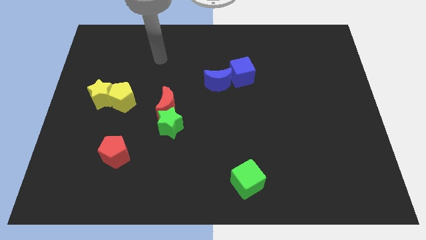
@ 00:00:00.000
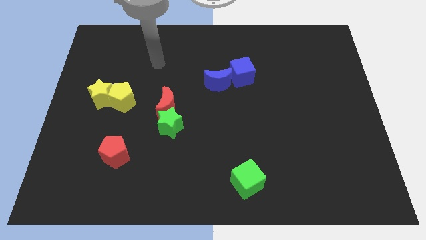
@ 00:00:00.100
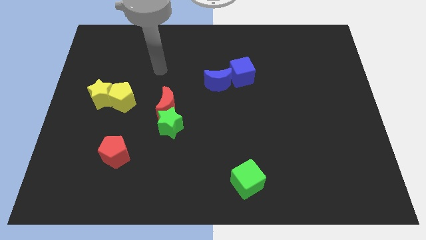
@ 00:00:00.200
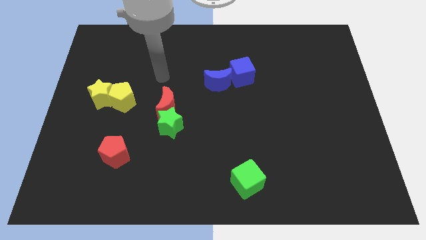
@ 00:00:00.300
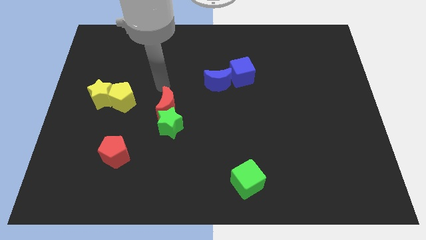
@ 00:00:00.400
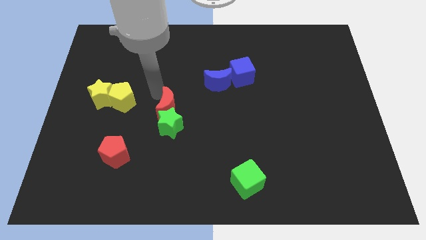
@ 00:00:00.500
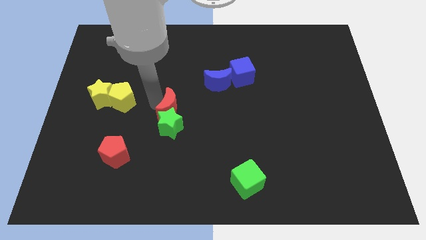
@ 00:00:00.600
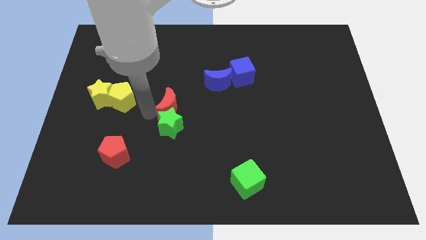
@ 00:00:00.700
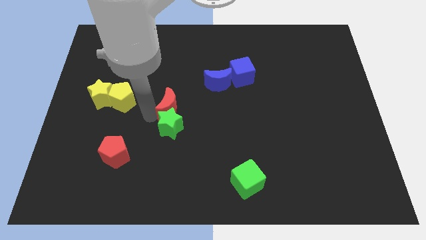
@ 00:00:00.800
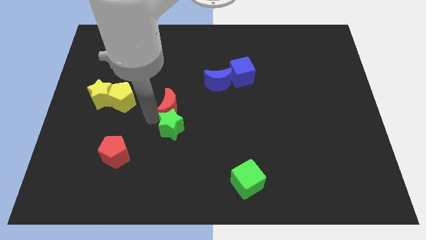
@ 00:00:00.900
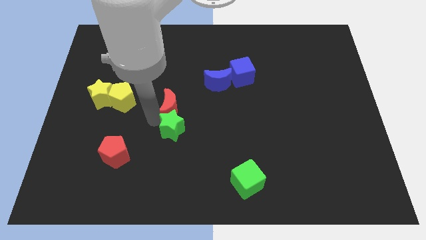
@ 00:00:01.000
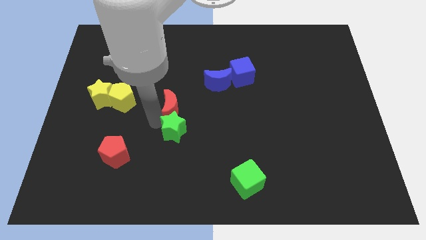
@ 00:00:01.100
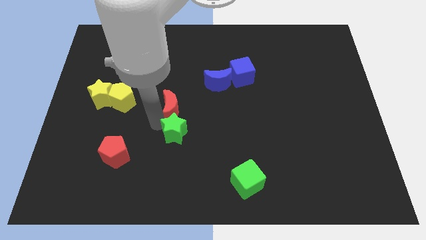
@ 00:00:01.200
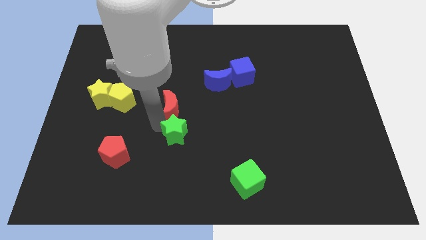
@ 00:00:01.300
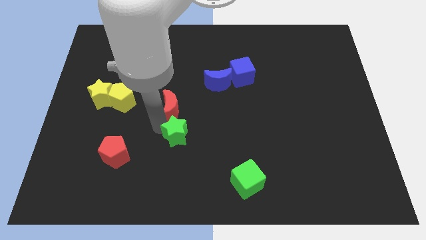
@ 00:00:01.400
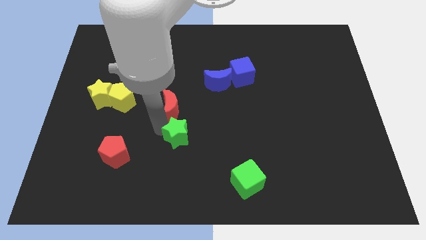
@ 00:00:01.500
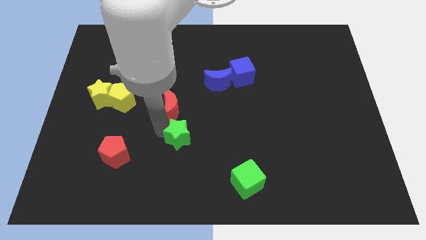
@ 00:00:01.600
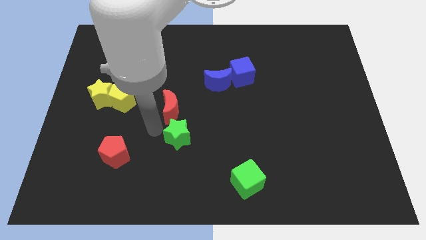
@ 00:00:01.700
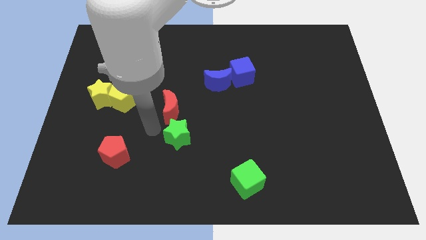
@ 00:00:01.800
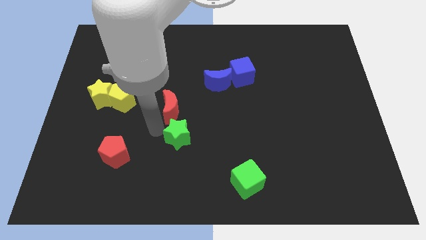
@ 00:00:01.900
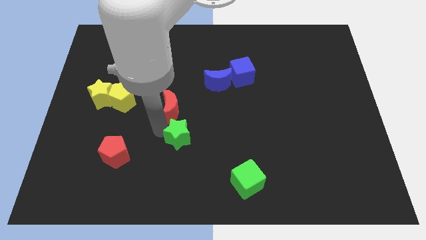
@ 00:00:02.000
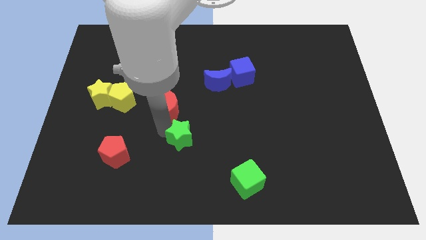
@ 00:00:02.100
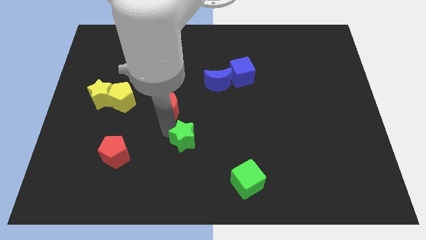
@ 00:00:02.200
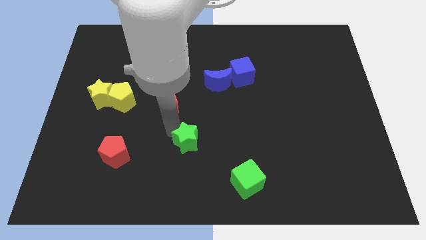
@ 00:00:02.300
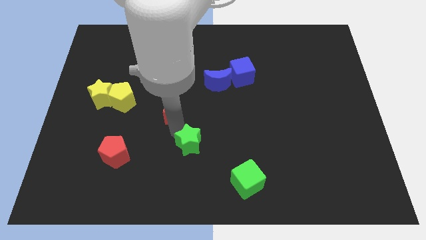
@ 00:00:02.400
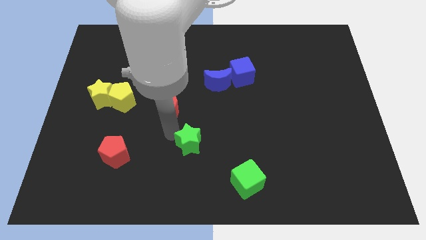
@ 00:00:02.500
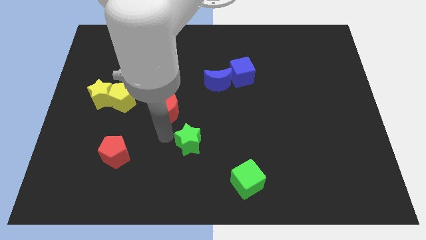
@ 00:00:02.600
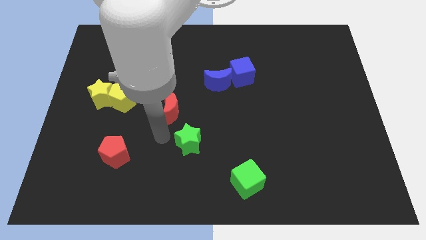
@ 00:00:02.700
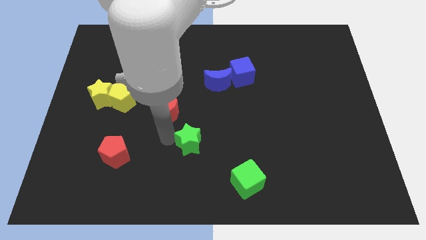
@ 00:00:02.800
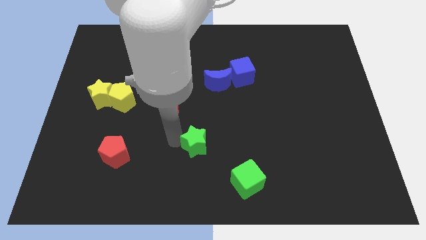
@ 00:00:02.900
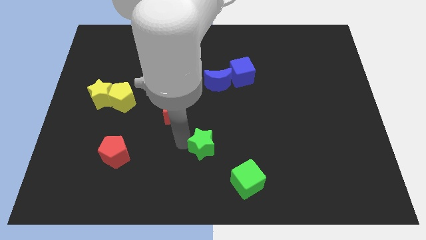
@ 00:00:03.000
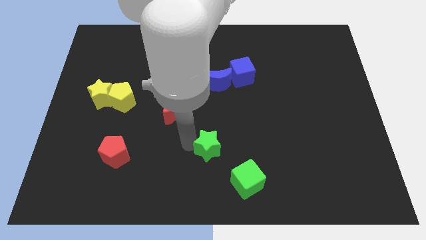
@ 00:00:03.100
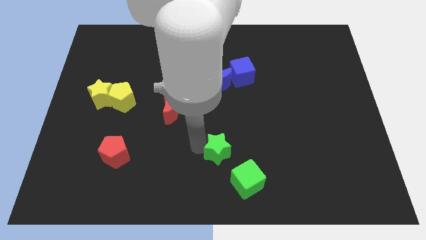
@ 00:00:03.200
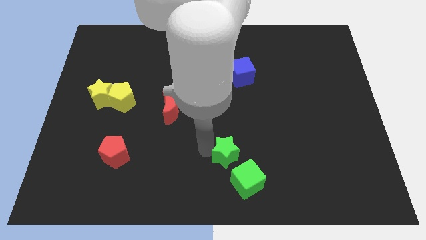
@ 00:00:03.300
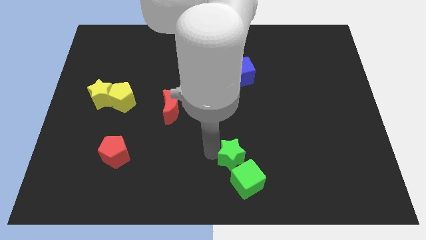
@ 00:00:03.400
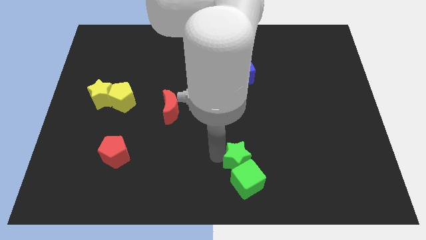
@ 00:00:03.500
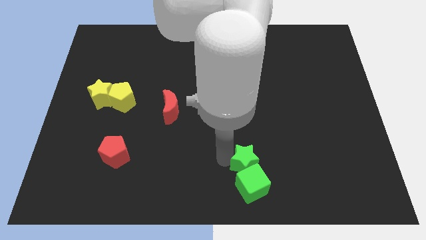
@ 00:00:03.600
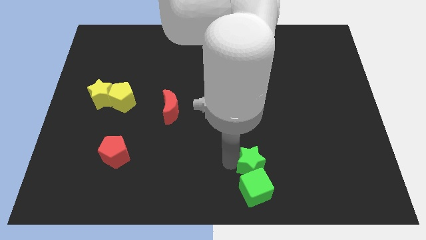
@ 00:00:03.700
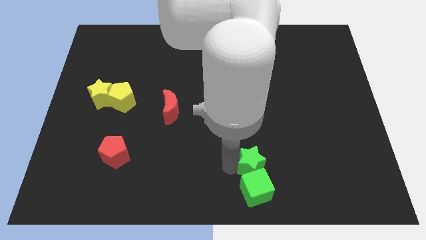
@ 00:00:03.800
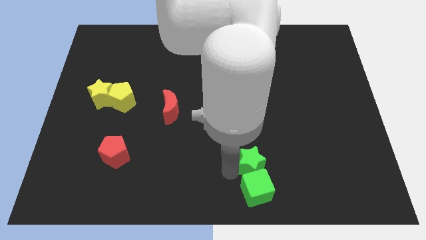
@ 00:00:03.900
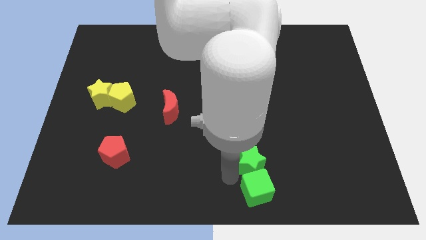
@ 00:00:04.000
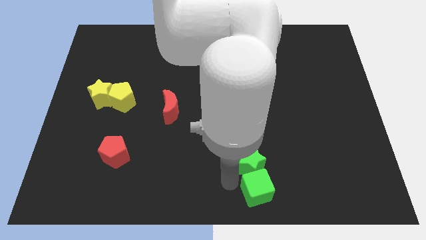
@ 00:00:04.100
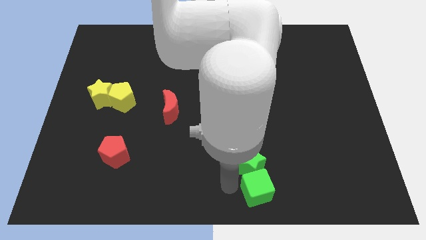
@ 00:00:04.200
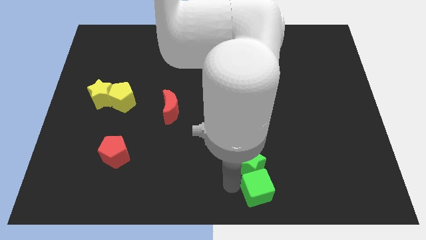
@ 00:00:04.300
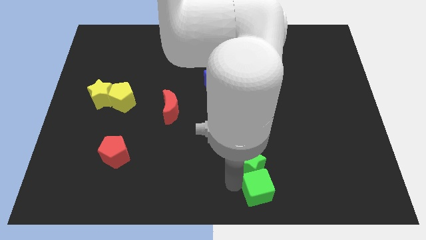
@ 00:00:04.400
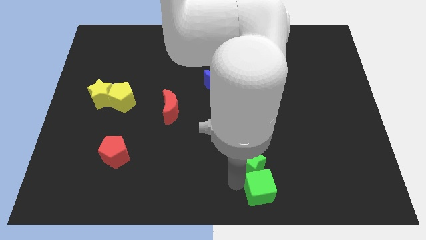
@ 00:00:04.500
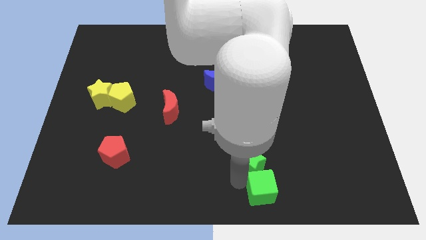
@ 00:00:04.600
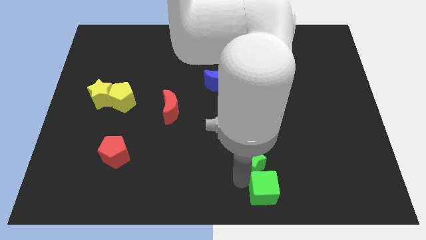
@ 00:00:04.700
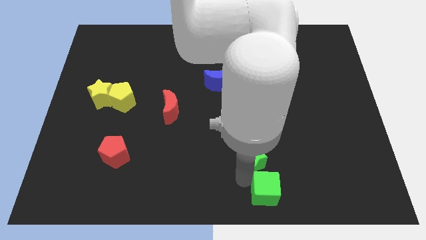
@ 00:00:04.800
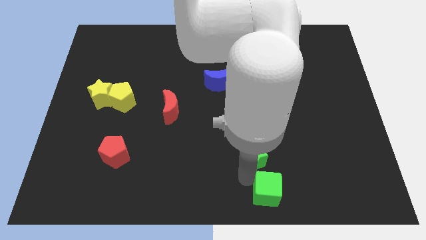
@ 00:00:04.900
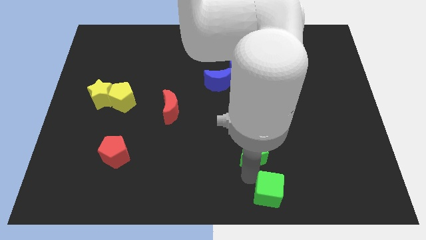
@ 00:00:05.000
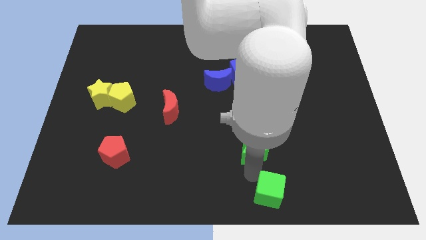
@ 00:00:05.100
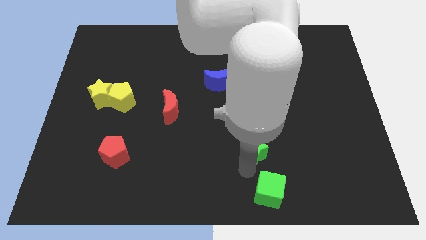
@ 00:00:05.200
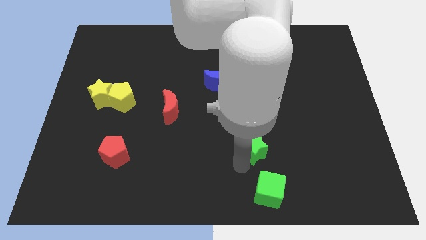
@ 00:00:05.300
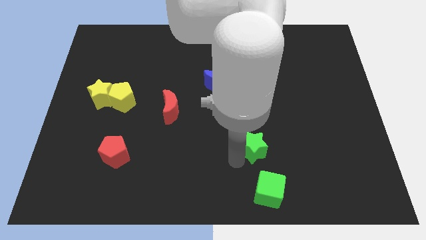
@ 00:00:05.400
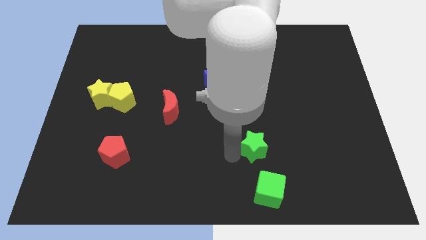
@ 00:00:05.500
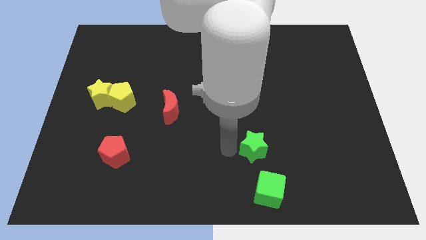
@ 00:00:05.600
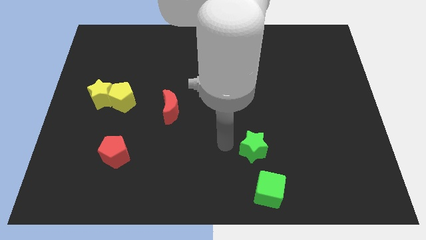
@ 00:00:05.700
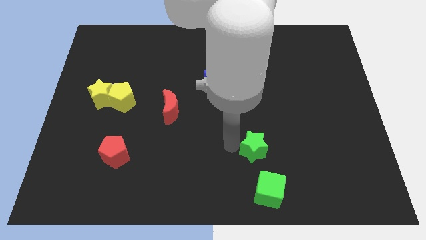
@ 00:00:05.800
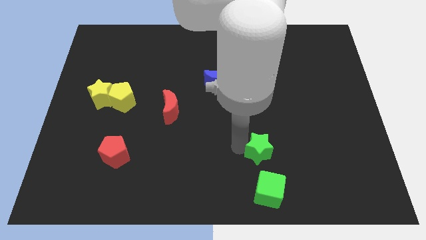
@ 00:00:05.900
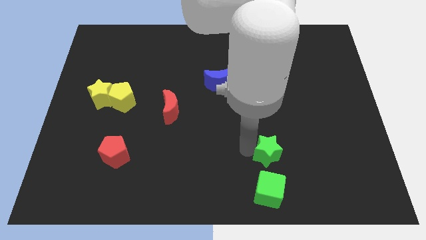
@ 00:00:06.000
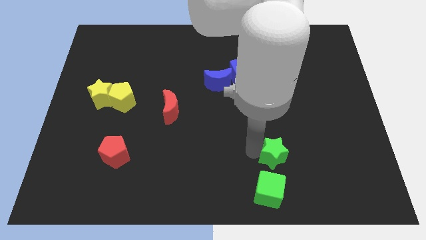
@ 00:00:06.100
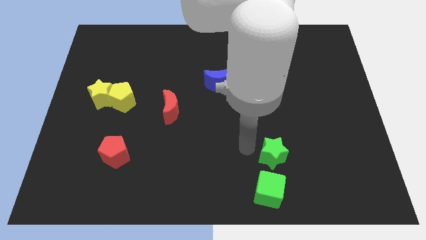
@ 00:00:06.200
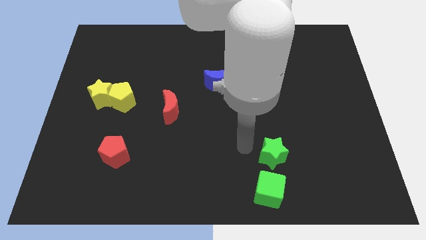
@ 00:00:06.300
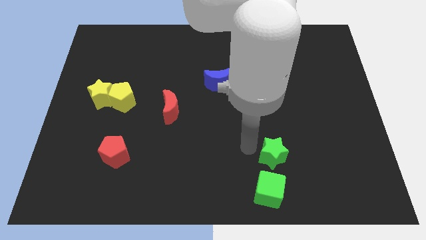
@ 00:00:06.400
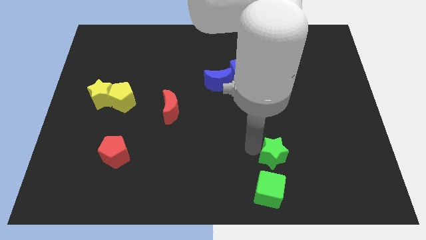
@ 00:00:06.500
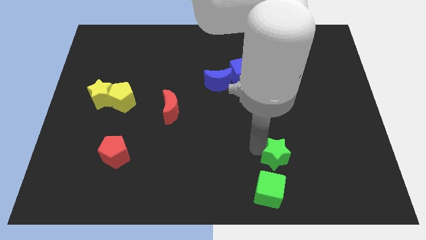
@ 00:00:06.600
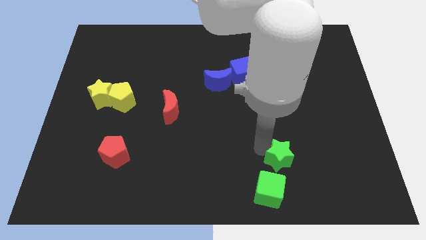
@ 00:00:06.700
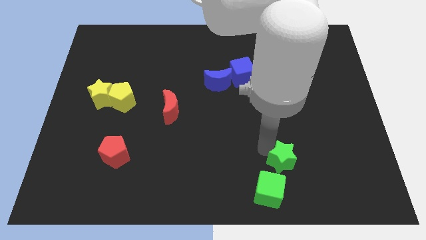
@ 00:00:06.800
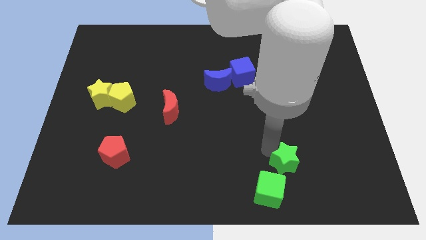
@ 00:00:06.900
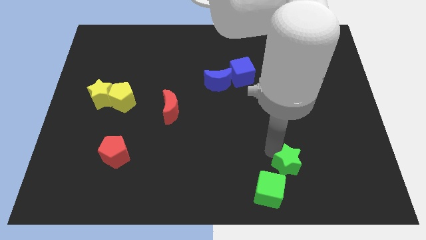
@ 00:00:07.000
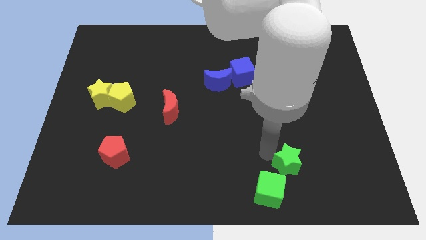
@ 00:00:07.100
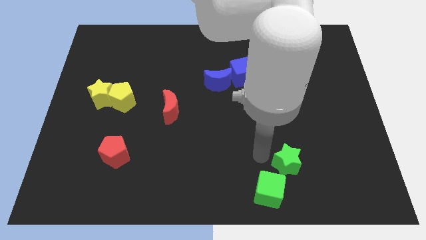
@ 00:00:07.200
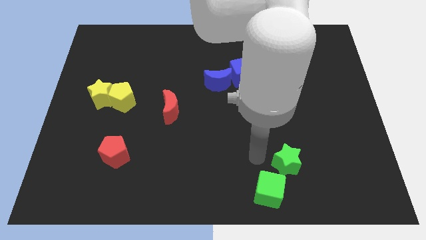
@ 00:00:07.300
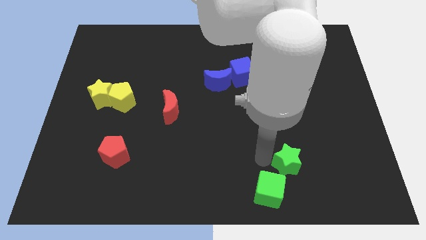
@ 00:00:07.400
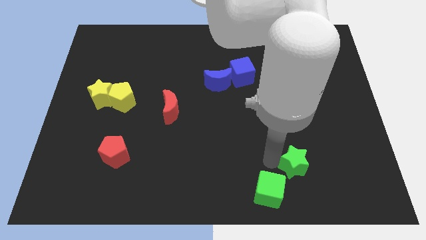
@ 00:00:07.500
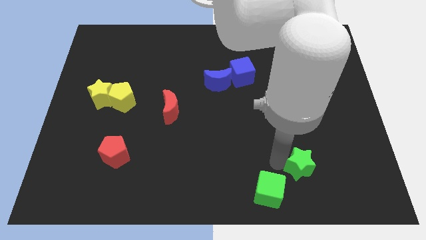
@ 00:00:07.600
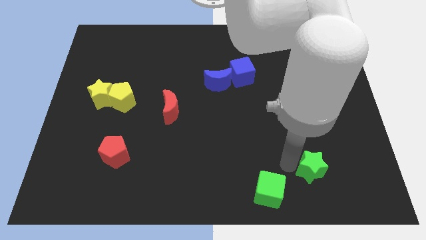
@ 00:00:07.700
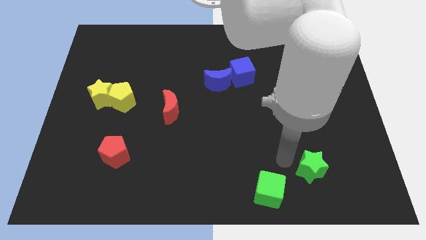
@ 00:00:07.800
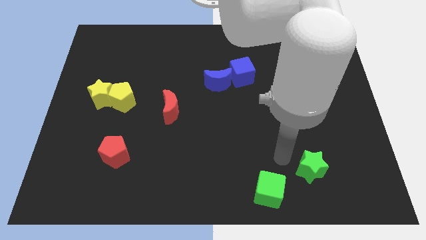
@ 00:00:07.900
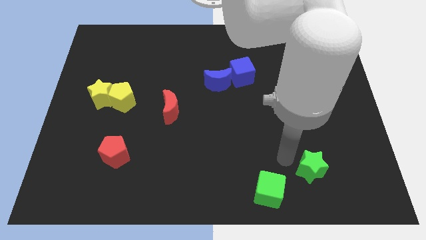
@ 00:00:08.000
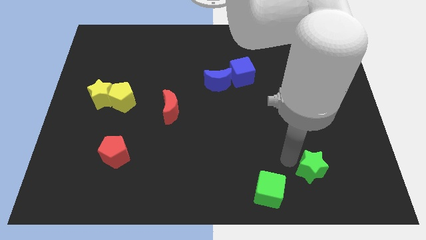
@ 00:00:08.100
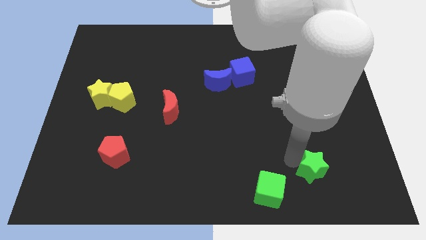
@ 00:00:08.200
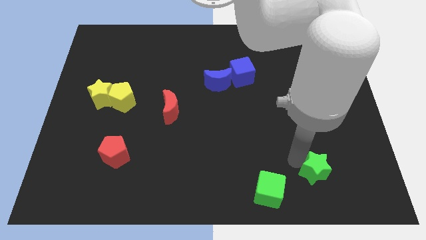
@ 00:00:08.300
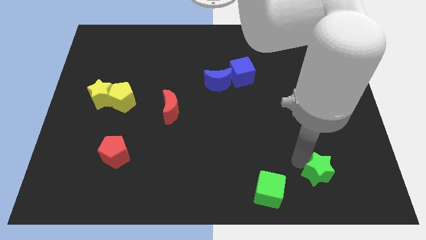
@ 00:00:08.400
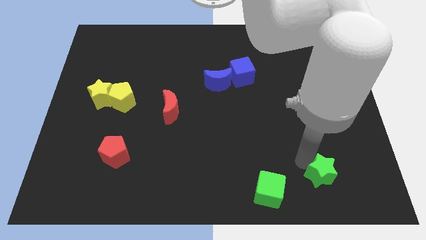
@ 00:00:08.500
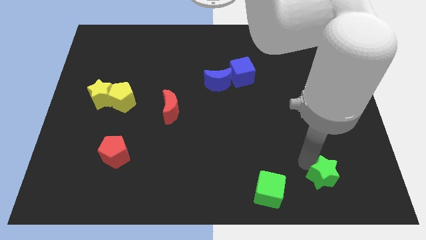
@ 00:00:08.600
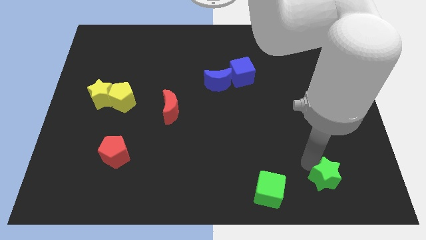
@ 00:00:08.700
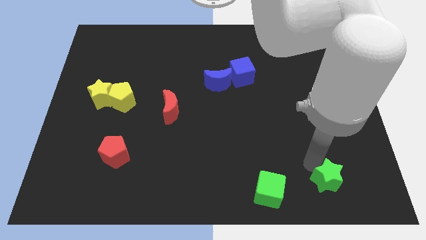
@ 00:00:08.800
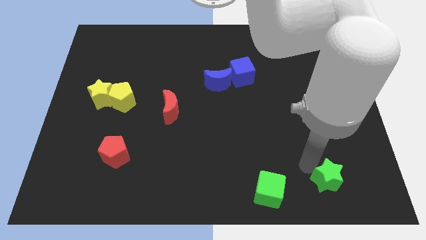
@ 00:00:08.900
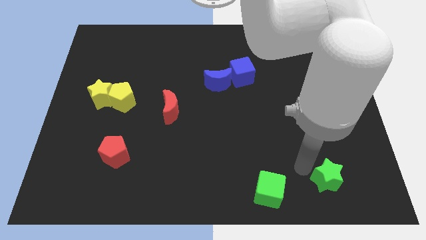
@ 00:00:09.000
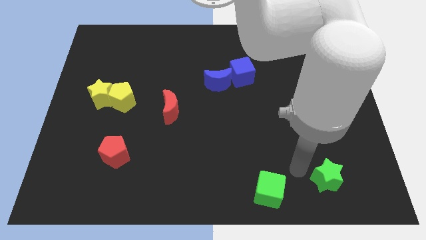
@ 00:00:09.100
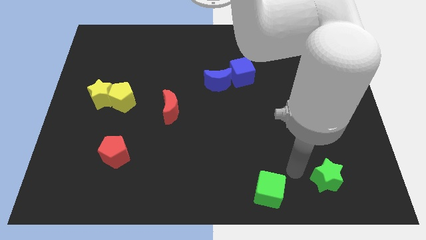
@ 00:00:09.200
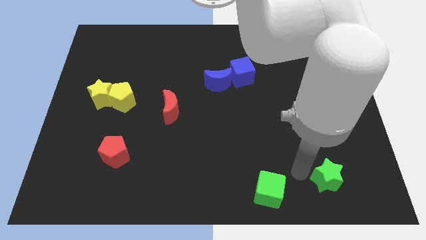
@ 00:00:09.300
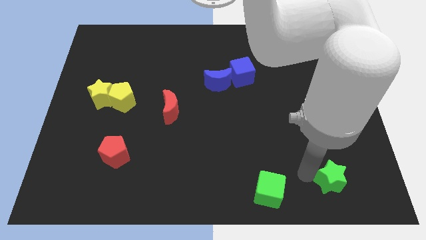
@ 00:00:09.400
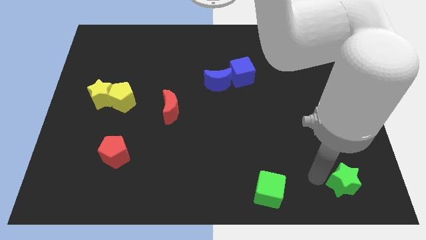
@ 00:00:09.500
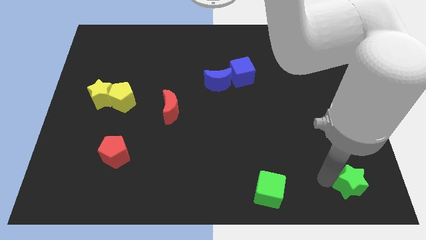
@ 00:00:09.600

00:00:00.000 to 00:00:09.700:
move the green star to the bottom right
